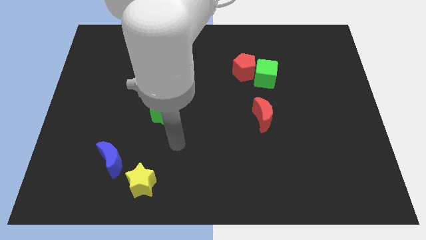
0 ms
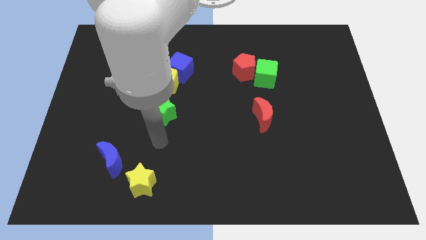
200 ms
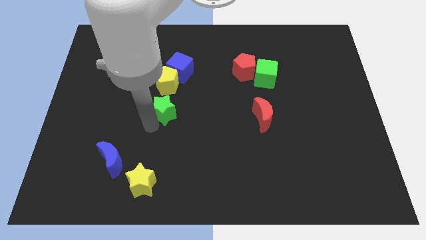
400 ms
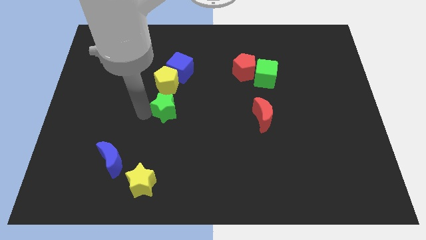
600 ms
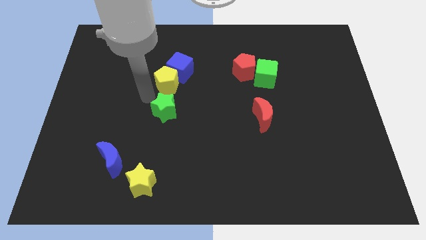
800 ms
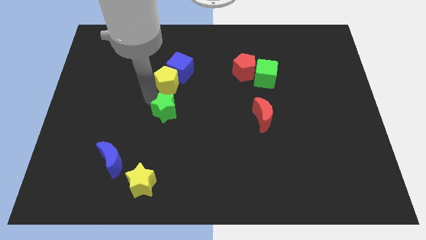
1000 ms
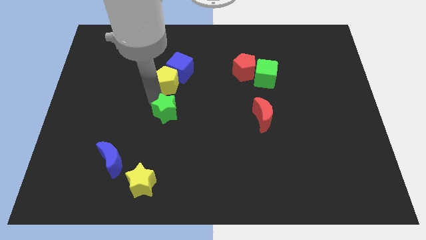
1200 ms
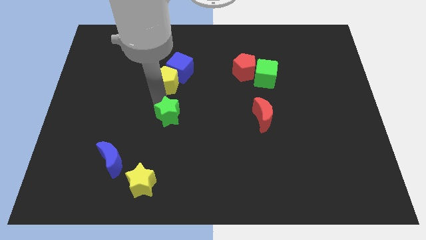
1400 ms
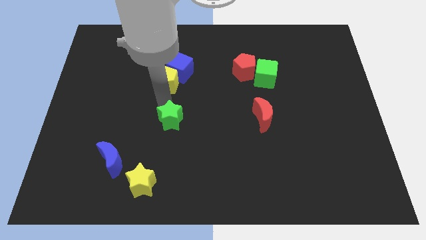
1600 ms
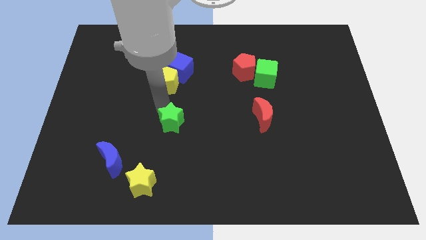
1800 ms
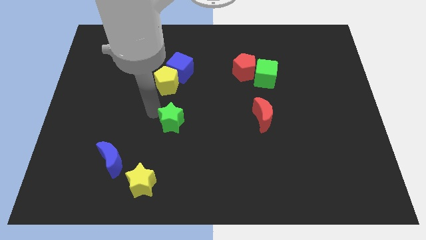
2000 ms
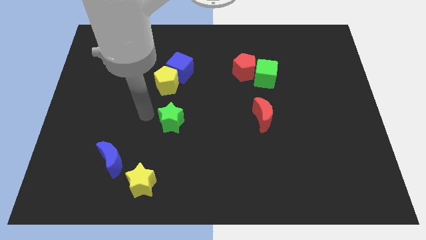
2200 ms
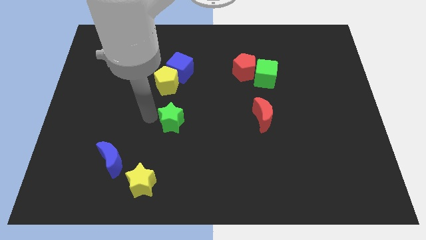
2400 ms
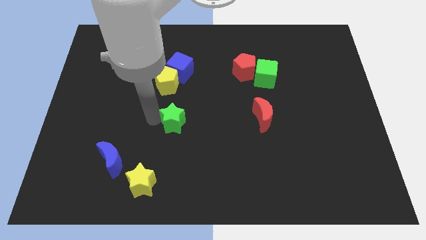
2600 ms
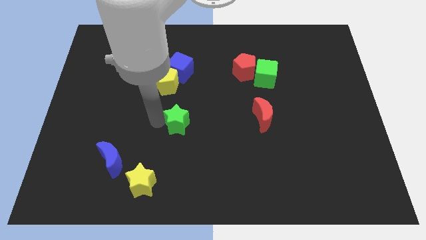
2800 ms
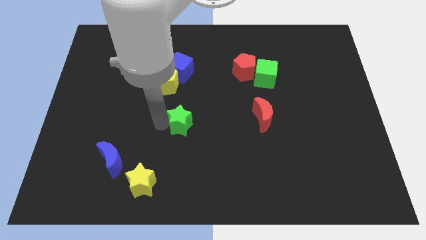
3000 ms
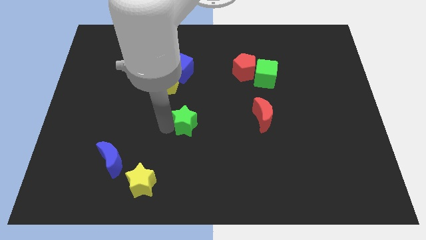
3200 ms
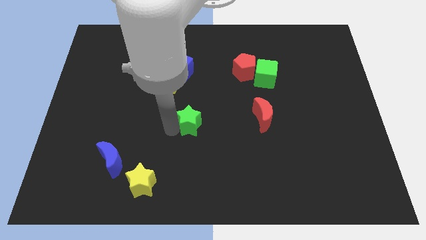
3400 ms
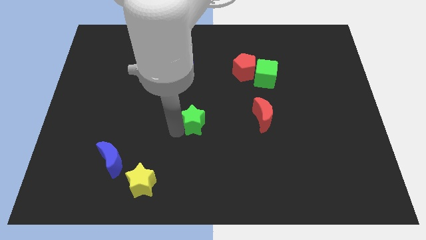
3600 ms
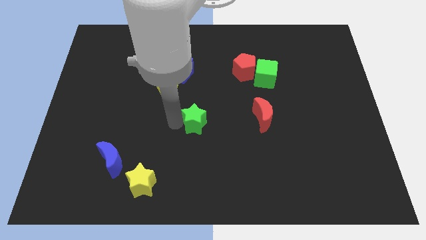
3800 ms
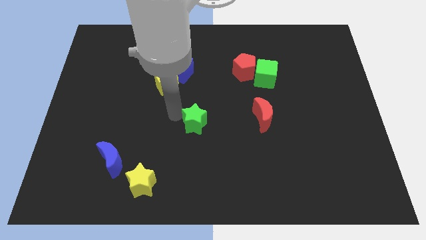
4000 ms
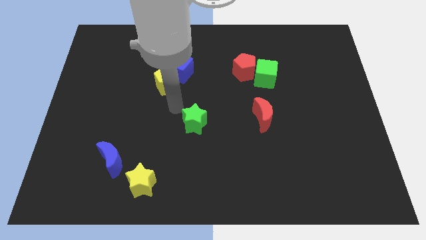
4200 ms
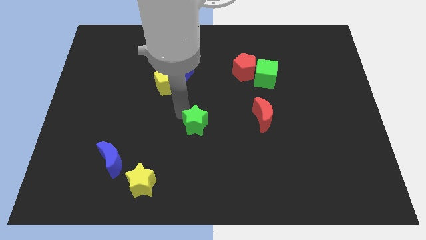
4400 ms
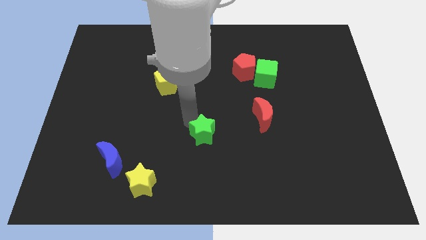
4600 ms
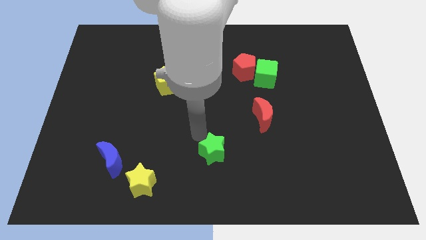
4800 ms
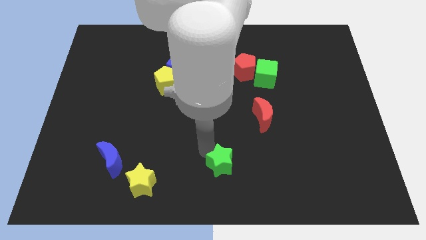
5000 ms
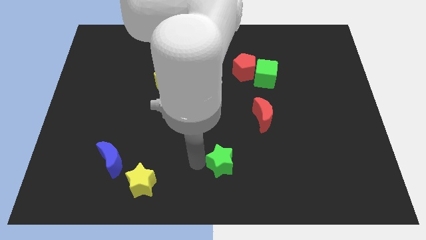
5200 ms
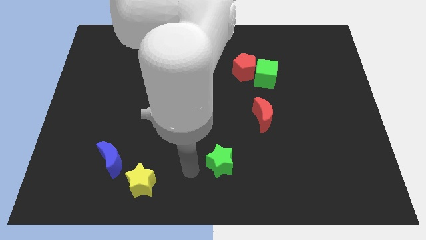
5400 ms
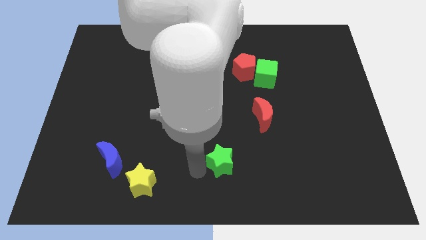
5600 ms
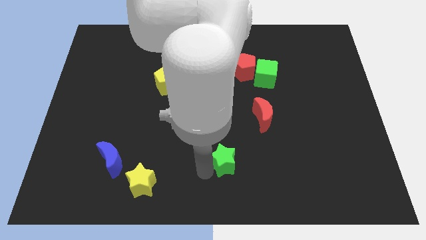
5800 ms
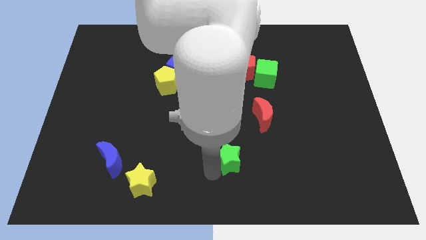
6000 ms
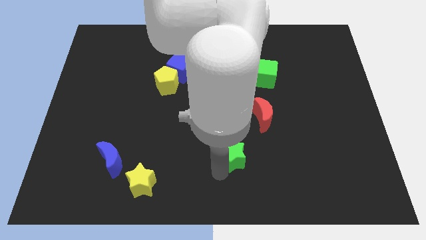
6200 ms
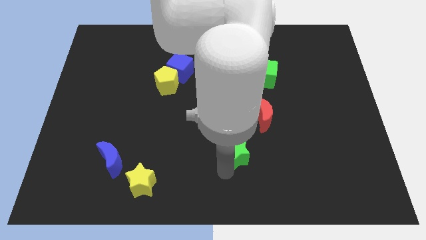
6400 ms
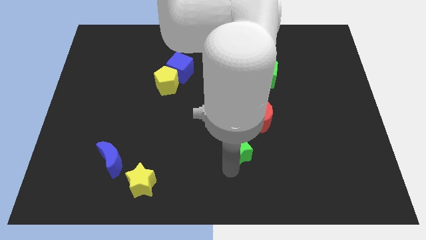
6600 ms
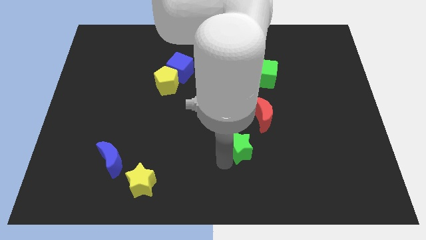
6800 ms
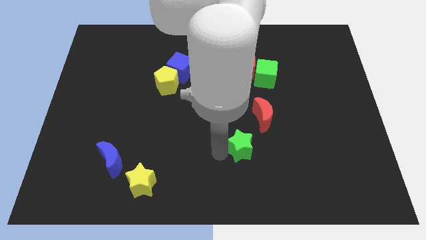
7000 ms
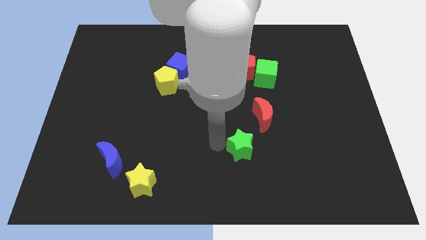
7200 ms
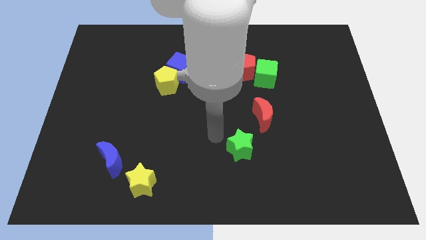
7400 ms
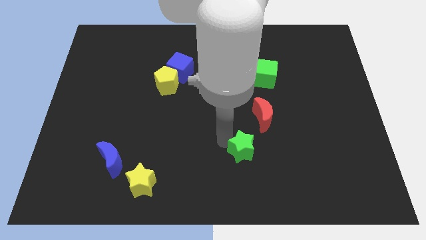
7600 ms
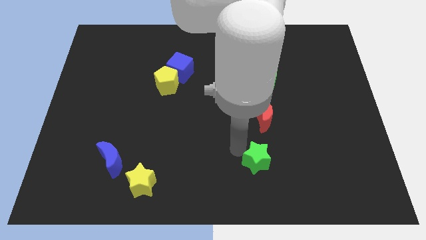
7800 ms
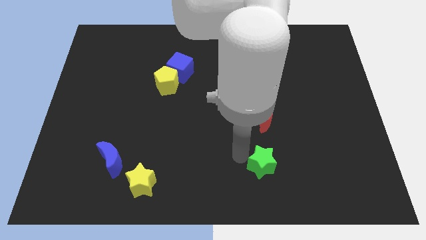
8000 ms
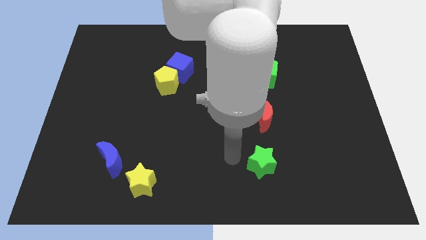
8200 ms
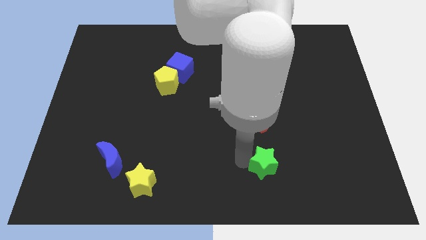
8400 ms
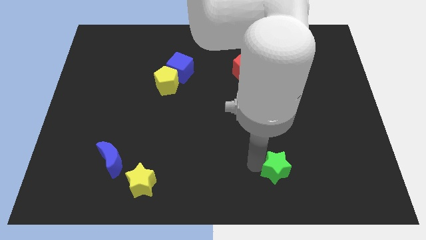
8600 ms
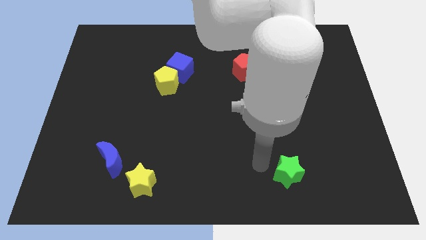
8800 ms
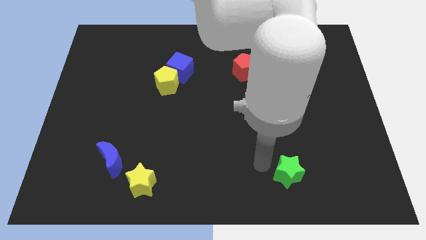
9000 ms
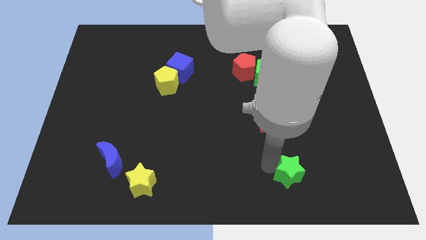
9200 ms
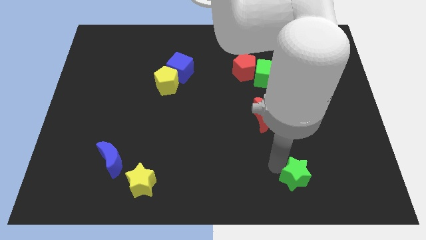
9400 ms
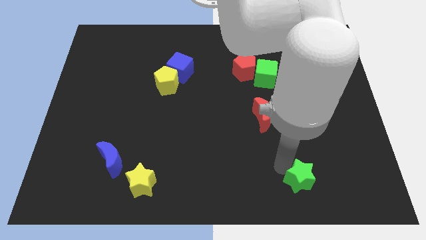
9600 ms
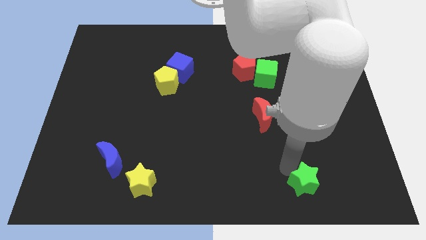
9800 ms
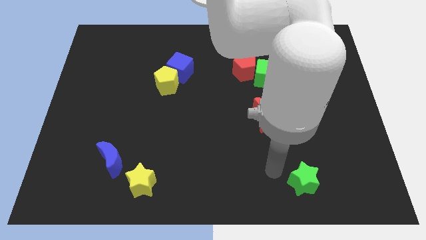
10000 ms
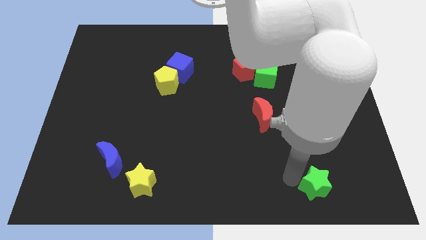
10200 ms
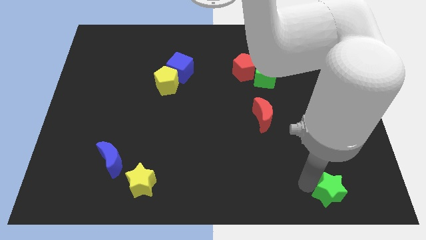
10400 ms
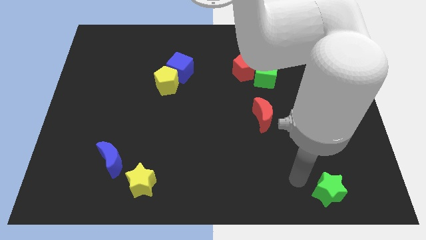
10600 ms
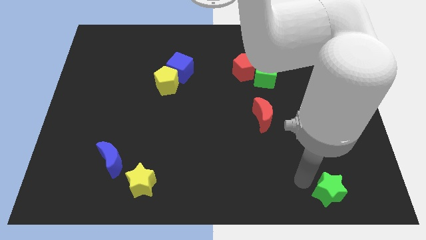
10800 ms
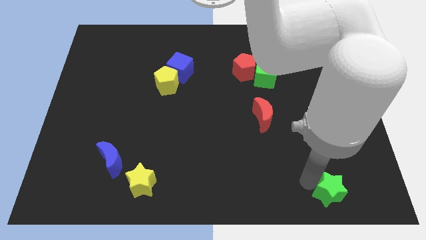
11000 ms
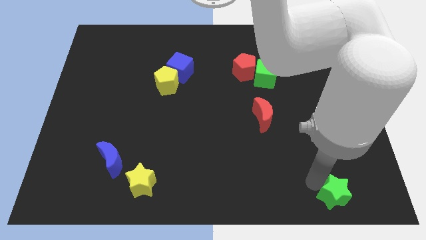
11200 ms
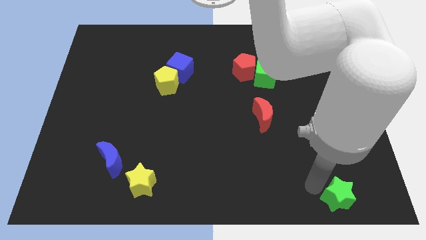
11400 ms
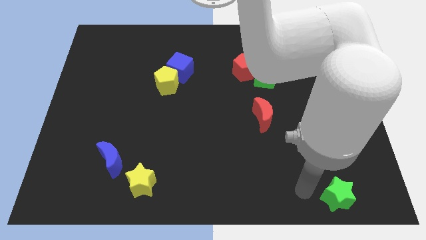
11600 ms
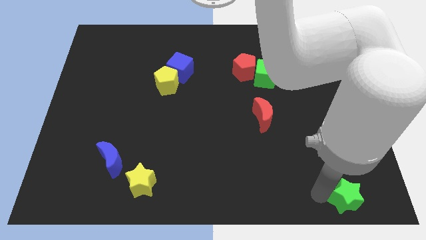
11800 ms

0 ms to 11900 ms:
put the green star to the bottom right corner
